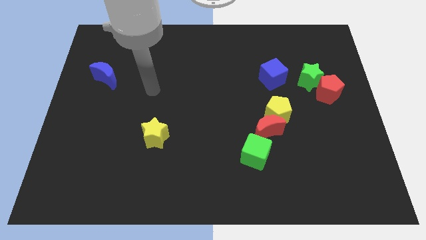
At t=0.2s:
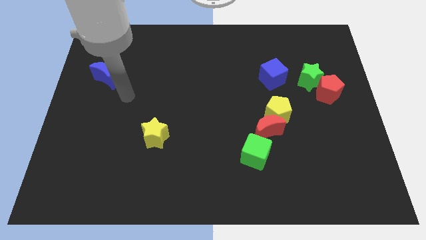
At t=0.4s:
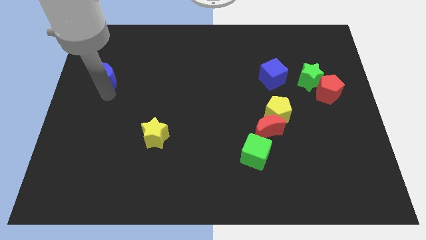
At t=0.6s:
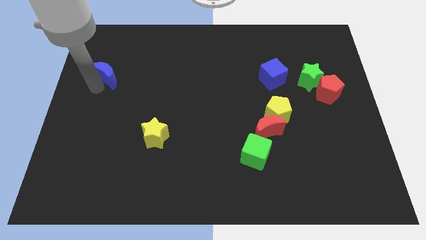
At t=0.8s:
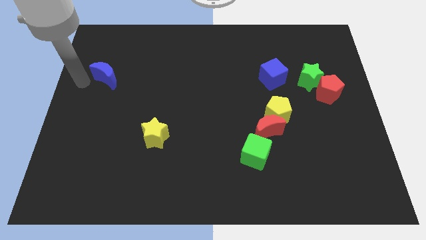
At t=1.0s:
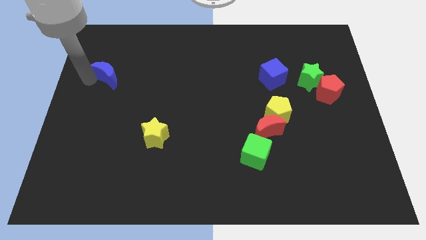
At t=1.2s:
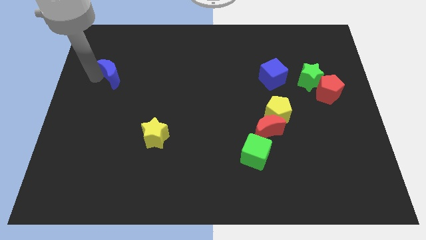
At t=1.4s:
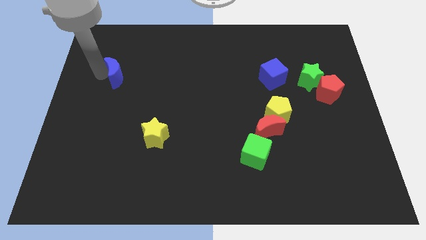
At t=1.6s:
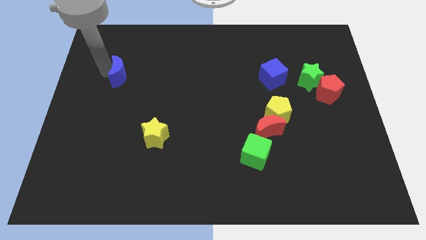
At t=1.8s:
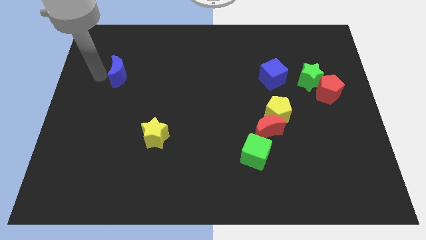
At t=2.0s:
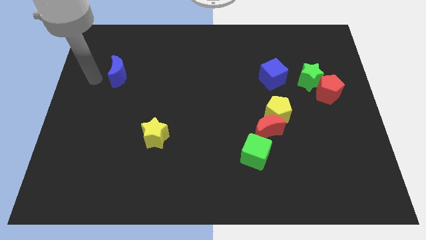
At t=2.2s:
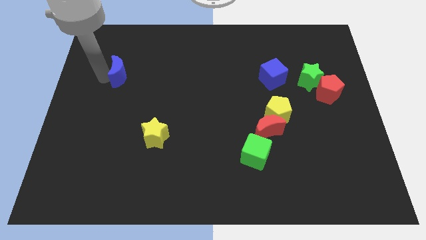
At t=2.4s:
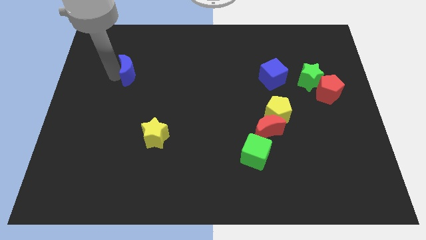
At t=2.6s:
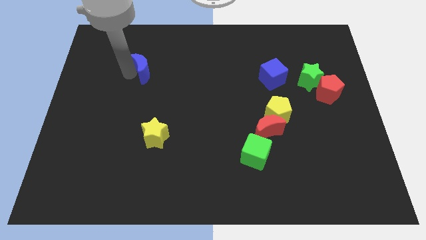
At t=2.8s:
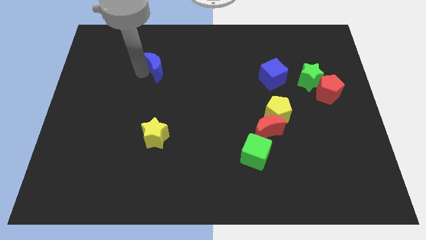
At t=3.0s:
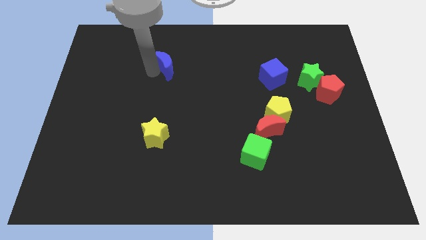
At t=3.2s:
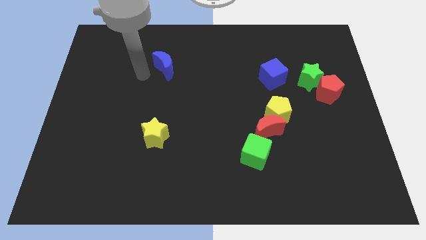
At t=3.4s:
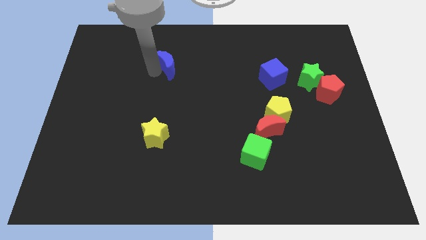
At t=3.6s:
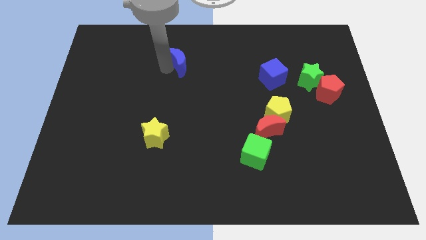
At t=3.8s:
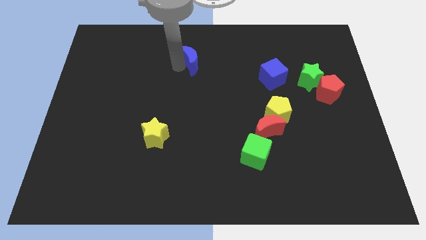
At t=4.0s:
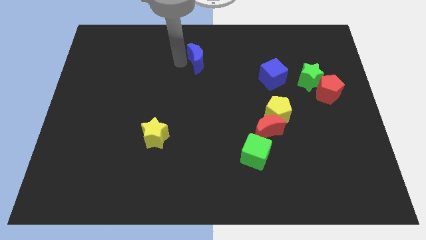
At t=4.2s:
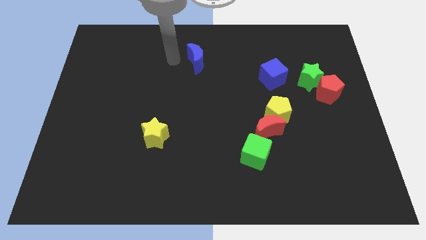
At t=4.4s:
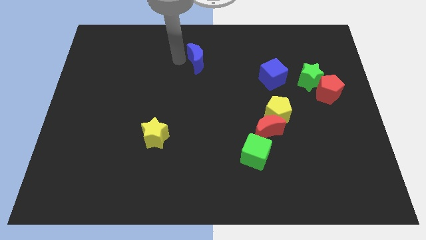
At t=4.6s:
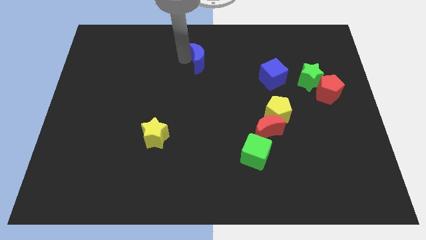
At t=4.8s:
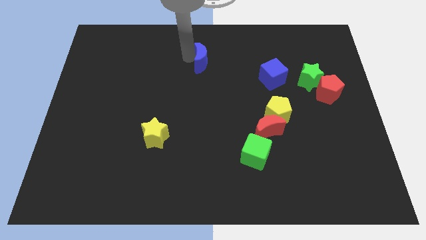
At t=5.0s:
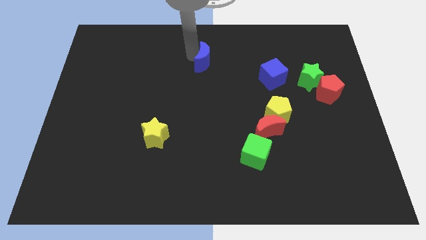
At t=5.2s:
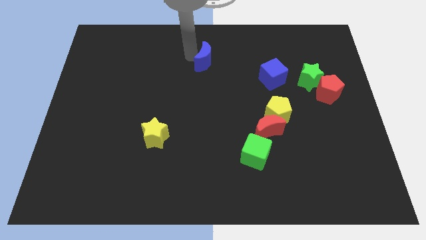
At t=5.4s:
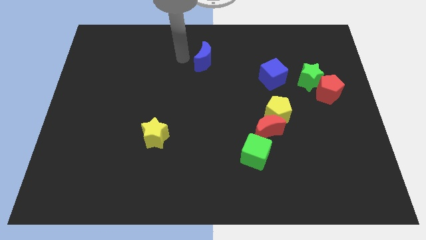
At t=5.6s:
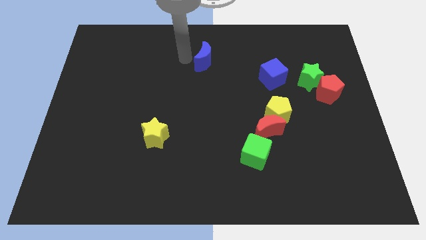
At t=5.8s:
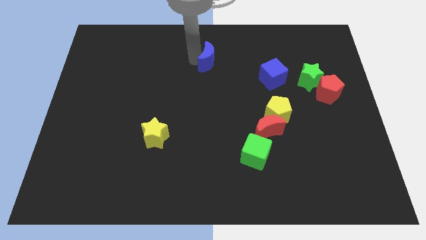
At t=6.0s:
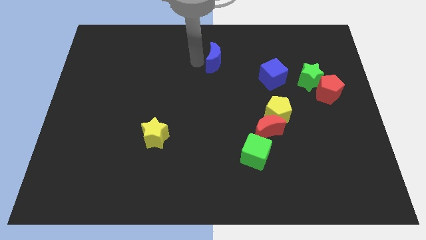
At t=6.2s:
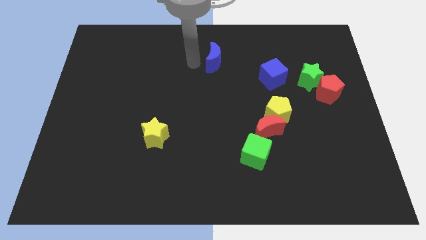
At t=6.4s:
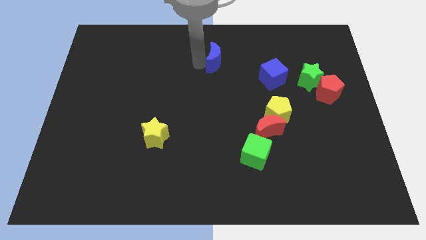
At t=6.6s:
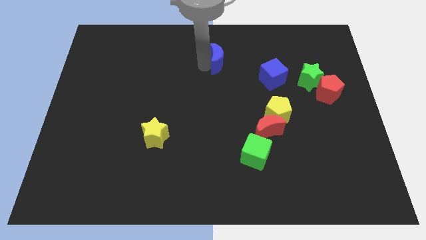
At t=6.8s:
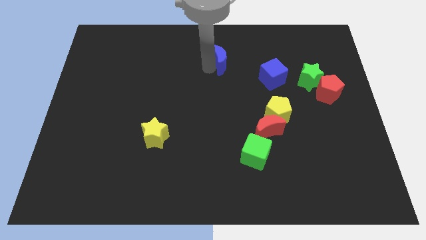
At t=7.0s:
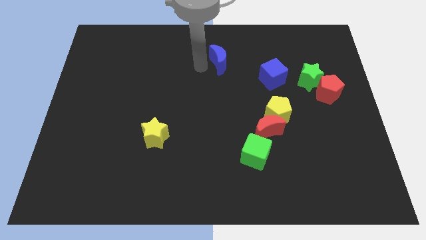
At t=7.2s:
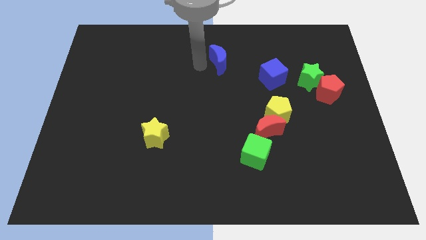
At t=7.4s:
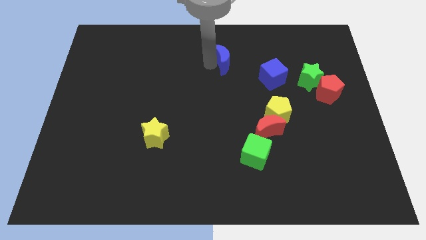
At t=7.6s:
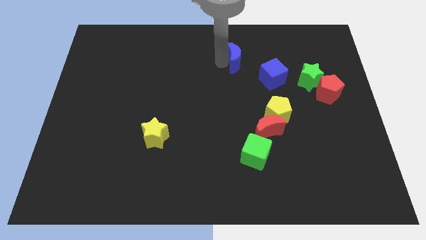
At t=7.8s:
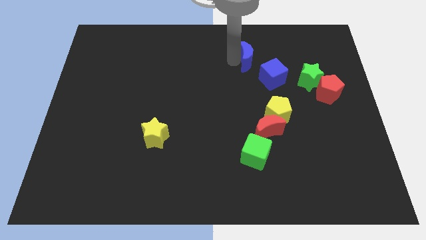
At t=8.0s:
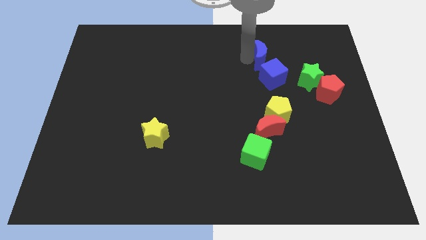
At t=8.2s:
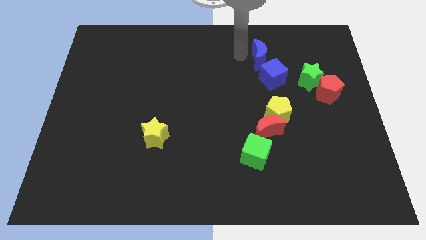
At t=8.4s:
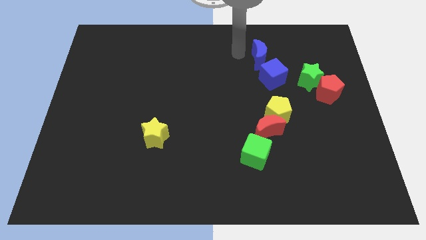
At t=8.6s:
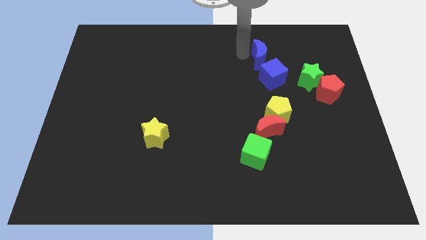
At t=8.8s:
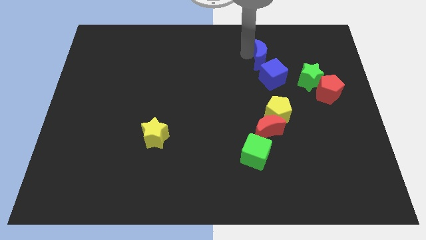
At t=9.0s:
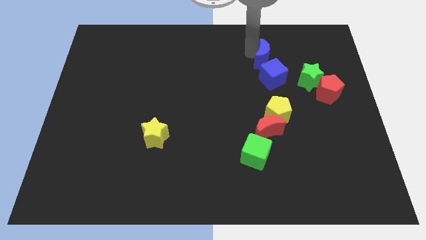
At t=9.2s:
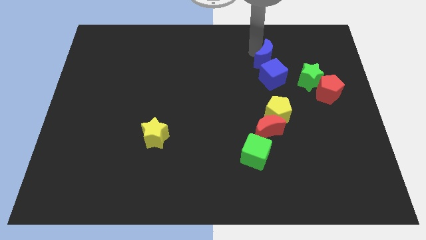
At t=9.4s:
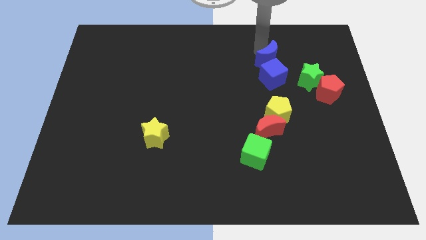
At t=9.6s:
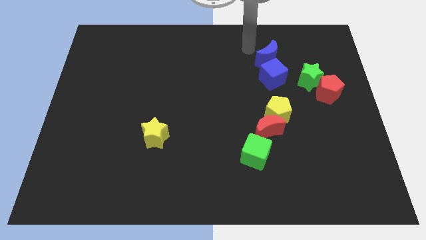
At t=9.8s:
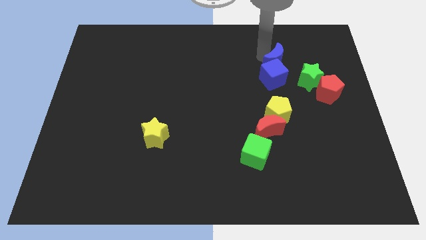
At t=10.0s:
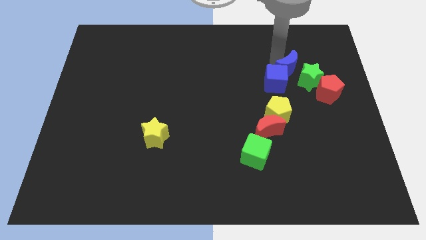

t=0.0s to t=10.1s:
put the blue moon to the top left of the red pentagon

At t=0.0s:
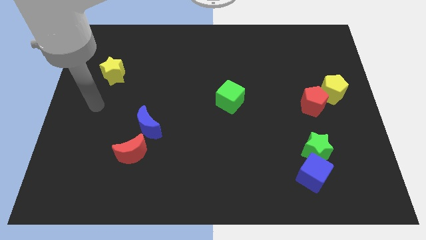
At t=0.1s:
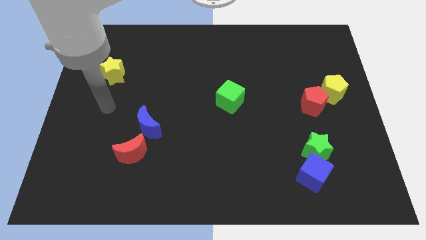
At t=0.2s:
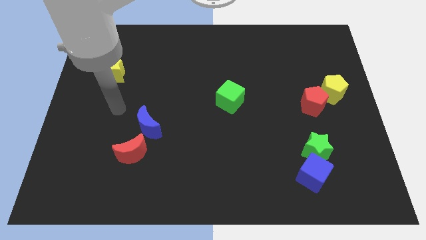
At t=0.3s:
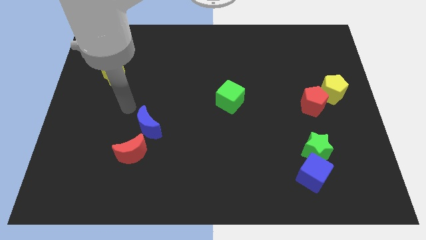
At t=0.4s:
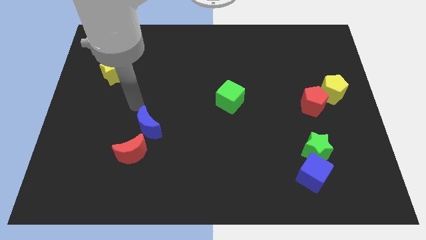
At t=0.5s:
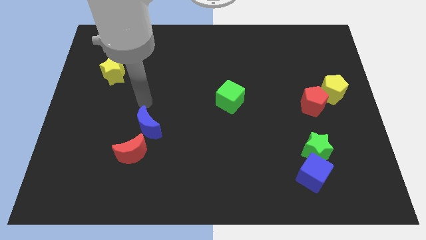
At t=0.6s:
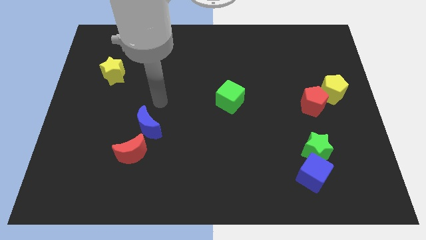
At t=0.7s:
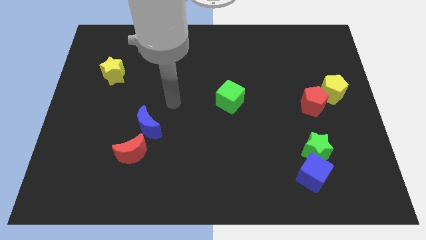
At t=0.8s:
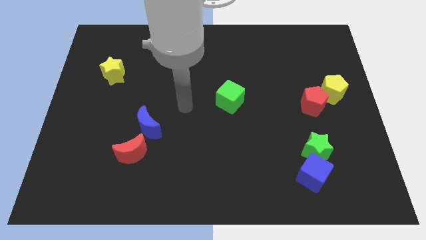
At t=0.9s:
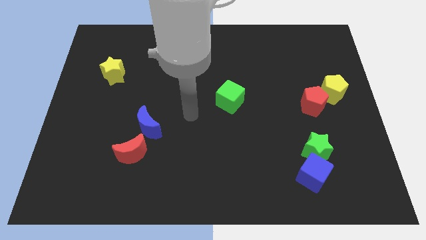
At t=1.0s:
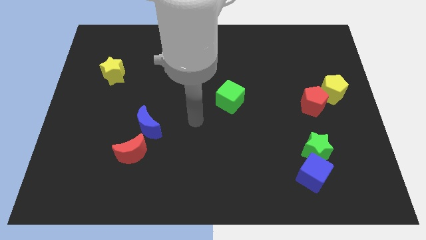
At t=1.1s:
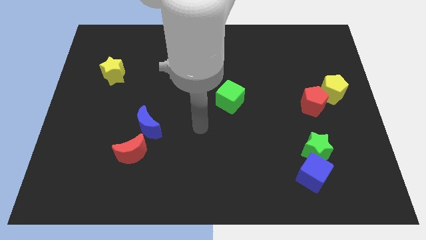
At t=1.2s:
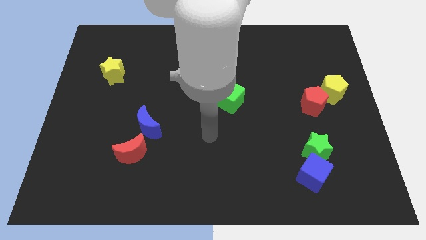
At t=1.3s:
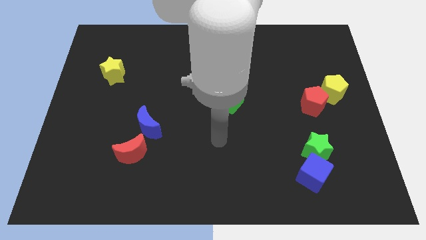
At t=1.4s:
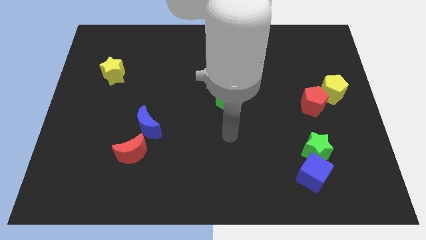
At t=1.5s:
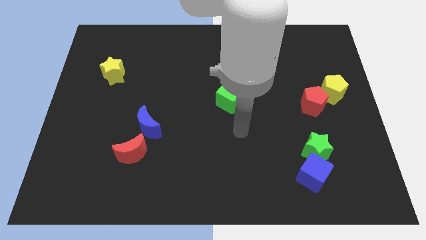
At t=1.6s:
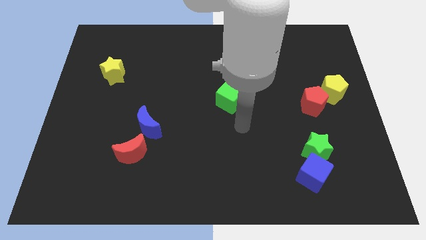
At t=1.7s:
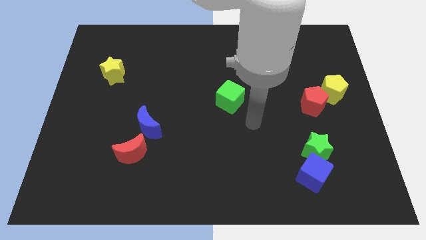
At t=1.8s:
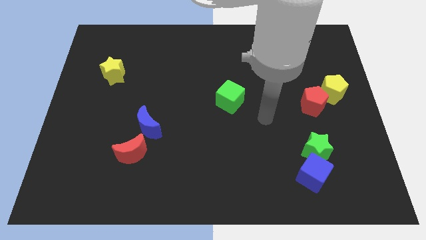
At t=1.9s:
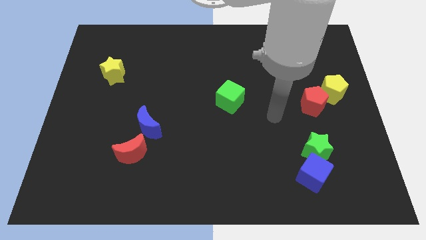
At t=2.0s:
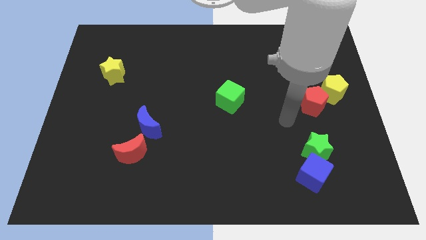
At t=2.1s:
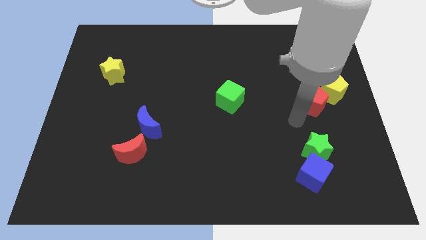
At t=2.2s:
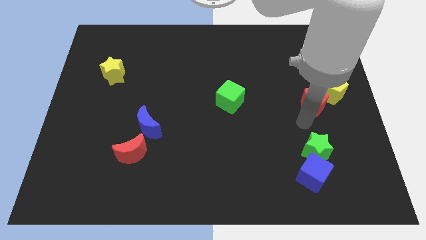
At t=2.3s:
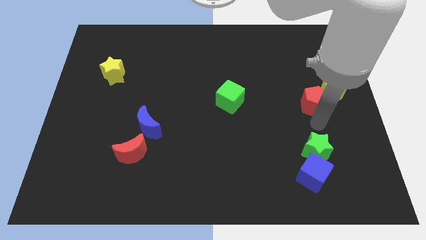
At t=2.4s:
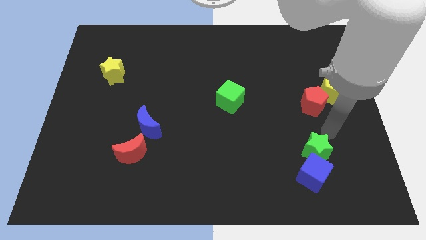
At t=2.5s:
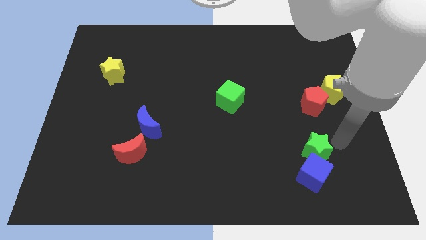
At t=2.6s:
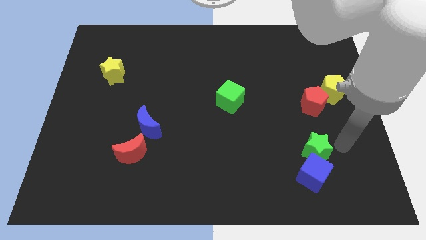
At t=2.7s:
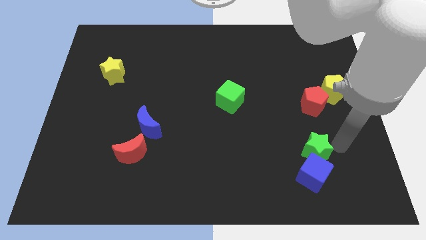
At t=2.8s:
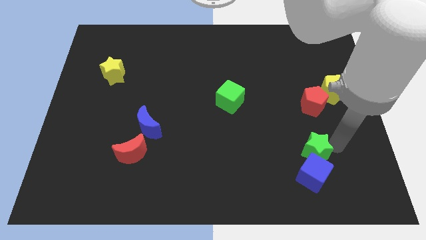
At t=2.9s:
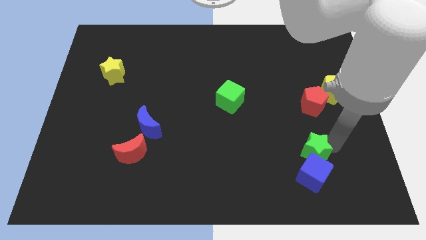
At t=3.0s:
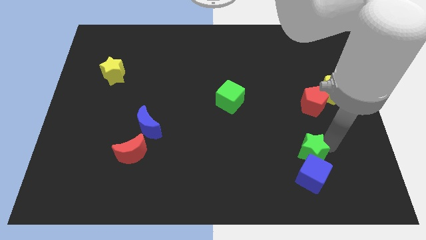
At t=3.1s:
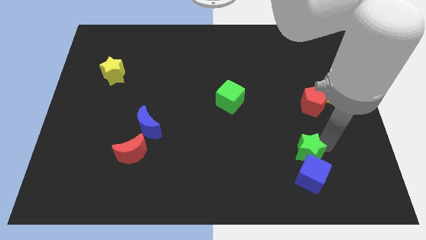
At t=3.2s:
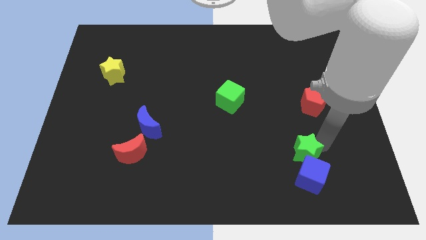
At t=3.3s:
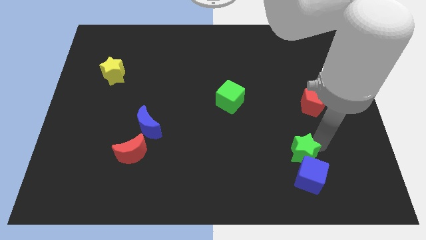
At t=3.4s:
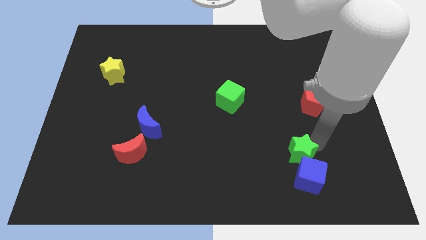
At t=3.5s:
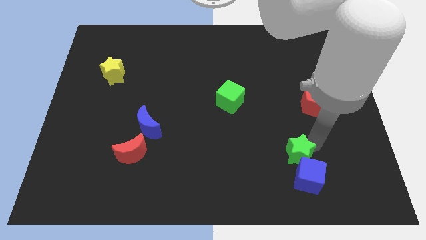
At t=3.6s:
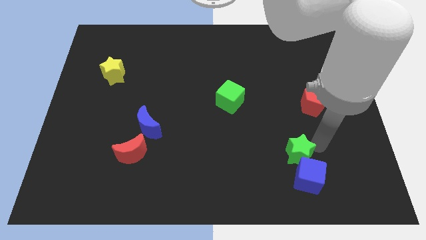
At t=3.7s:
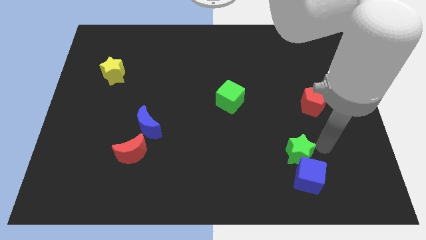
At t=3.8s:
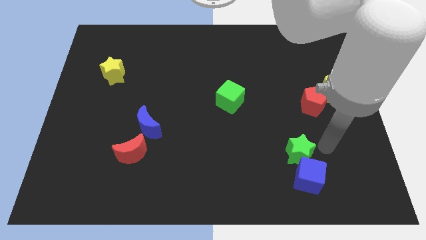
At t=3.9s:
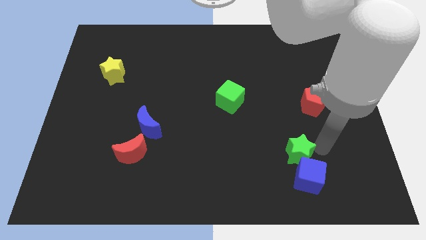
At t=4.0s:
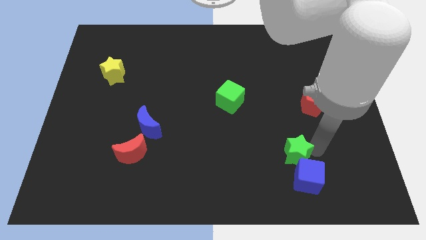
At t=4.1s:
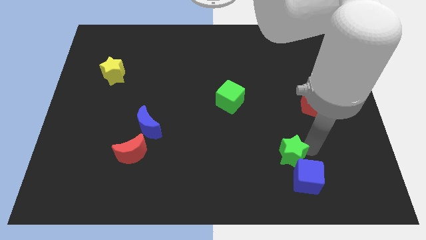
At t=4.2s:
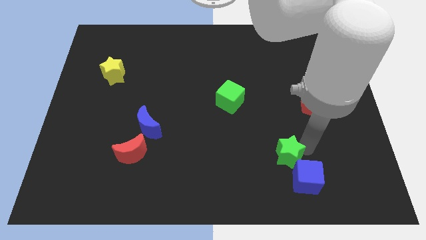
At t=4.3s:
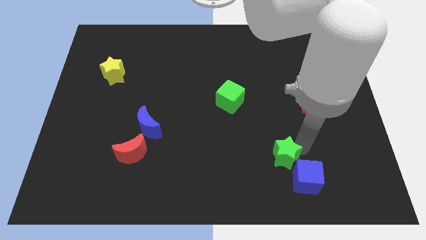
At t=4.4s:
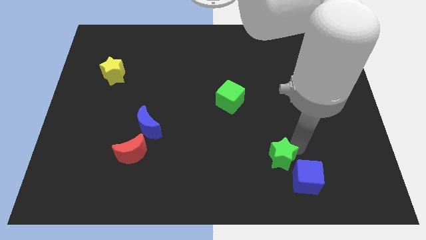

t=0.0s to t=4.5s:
put the green star left of the blue cube
